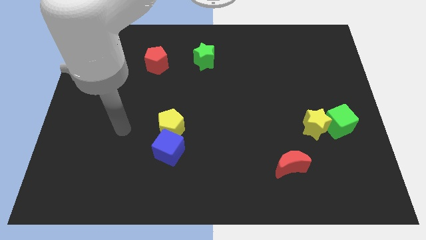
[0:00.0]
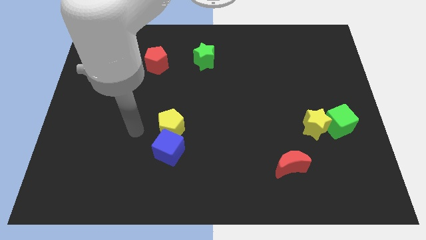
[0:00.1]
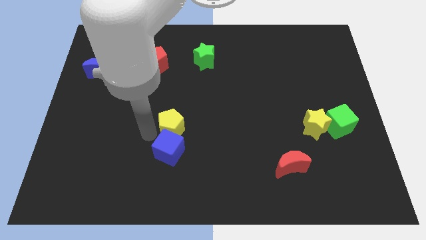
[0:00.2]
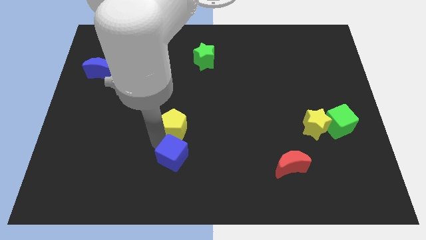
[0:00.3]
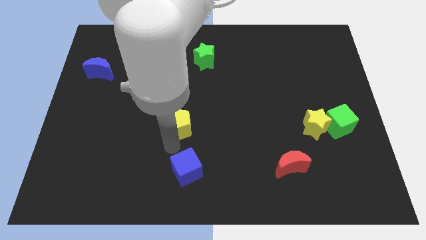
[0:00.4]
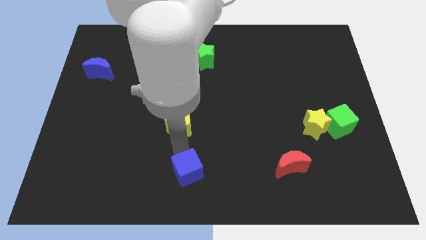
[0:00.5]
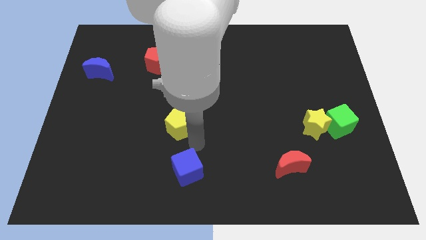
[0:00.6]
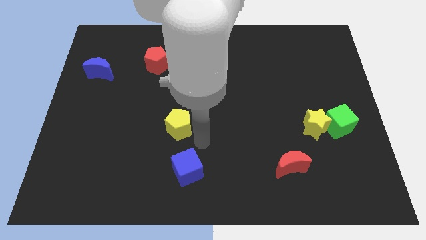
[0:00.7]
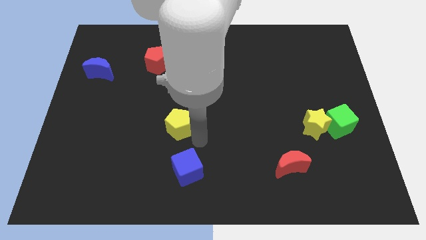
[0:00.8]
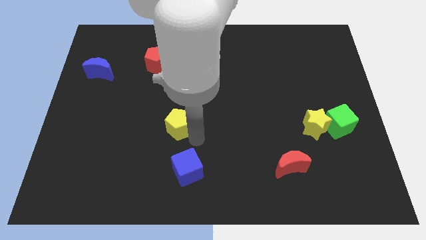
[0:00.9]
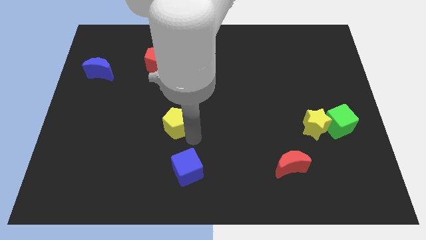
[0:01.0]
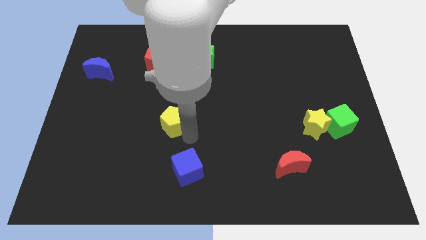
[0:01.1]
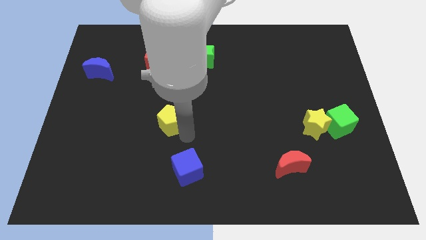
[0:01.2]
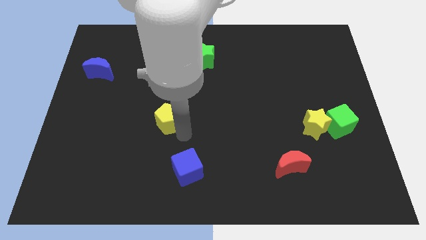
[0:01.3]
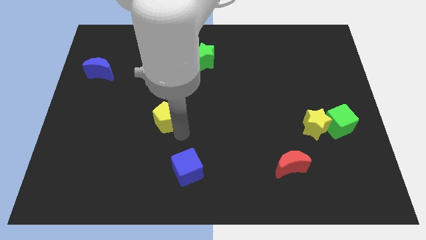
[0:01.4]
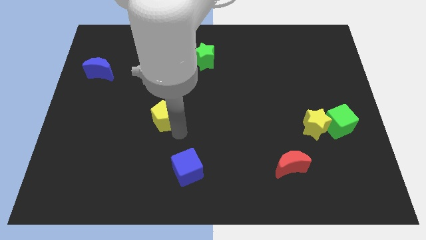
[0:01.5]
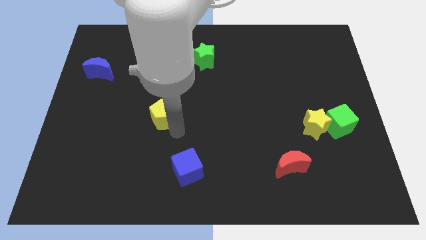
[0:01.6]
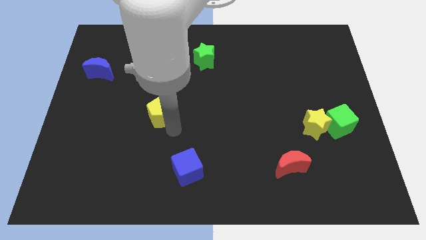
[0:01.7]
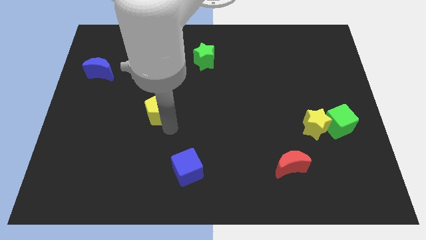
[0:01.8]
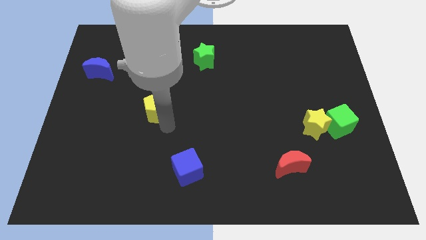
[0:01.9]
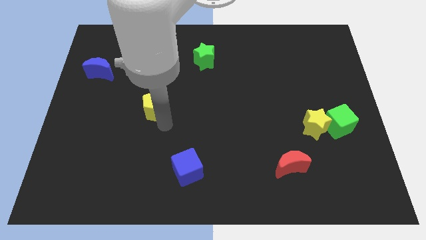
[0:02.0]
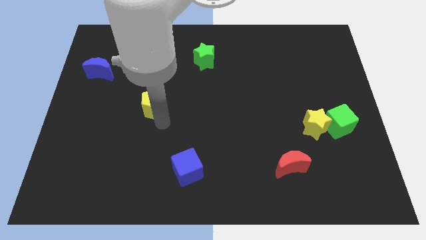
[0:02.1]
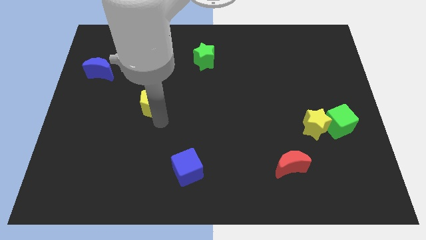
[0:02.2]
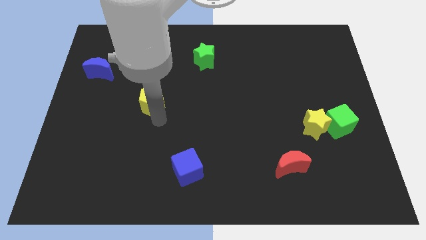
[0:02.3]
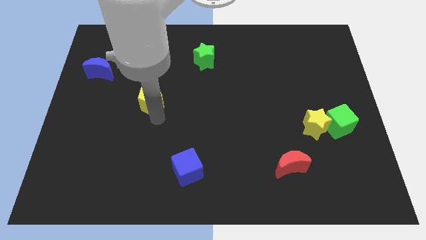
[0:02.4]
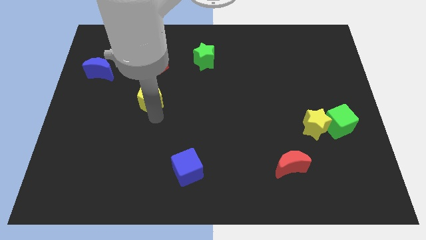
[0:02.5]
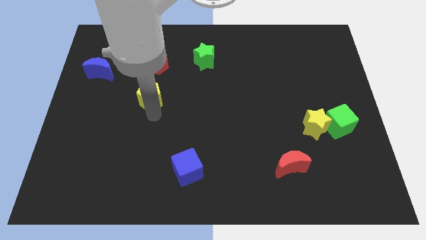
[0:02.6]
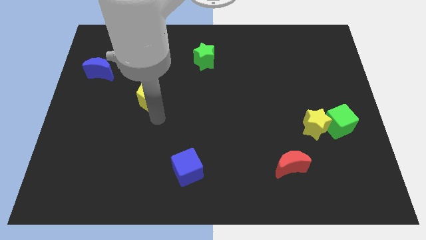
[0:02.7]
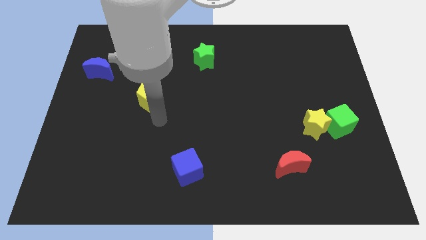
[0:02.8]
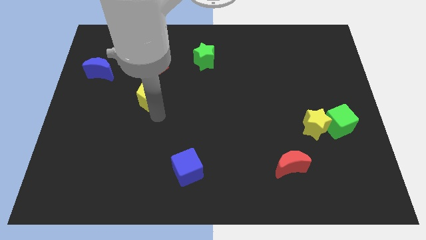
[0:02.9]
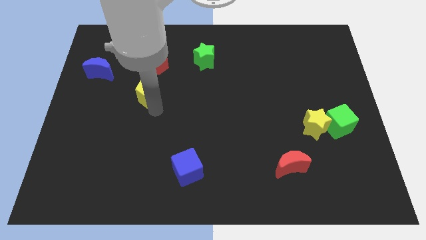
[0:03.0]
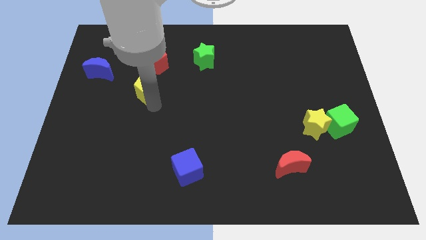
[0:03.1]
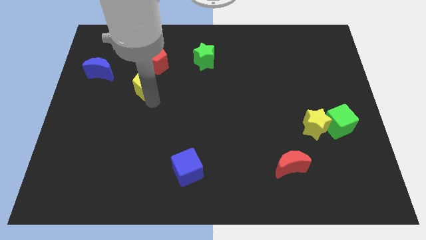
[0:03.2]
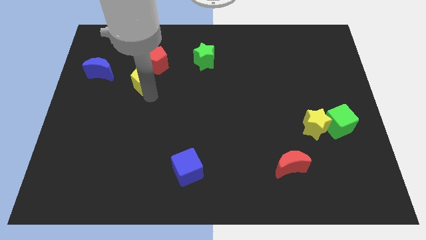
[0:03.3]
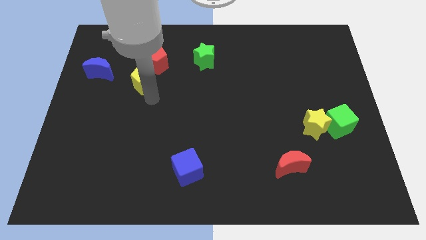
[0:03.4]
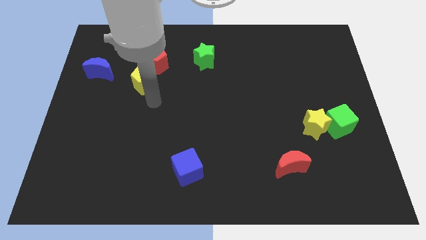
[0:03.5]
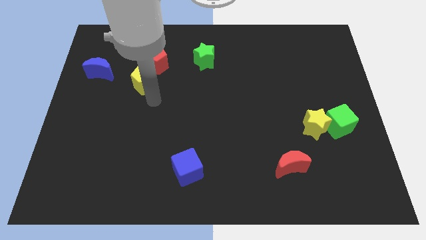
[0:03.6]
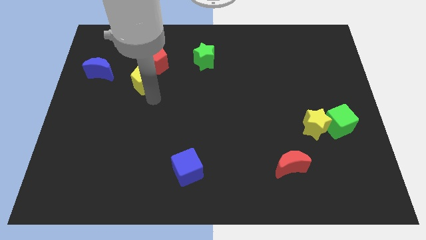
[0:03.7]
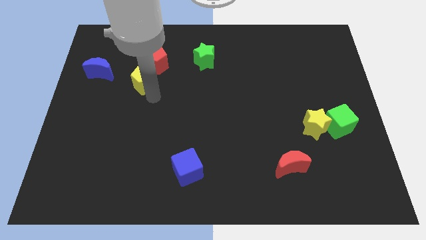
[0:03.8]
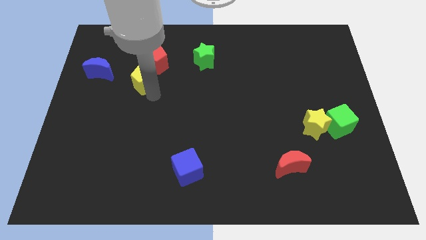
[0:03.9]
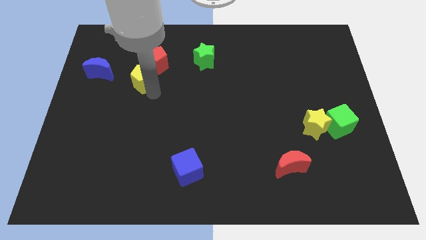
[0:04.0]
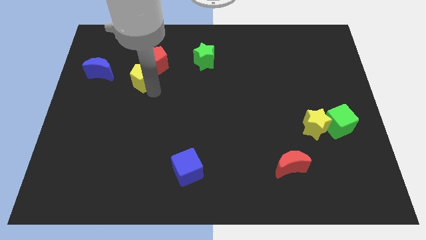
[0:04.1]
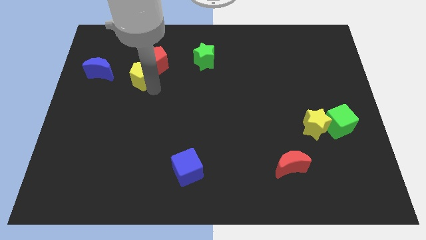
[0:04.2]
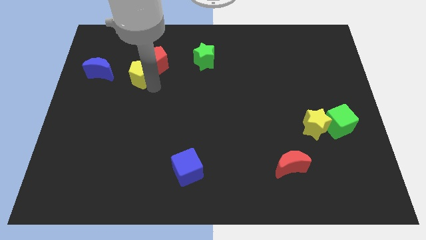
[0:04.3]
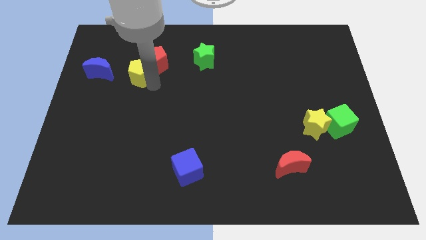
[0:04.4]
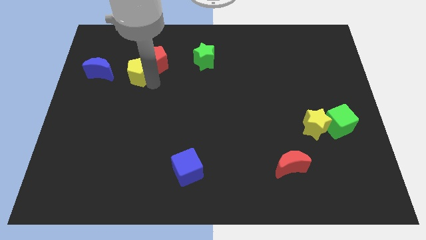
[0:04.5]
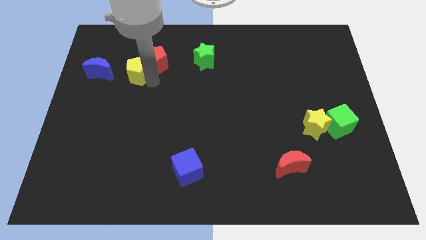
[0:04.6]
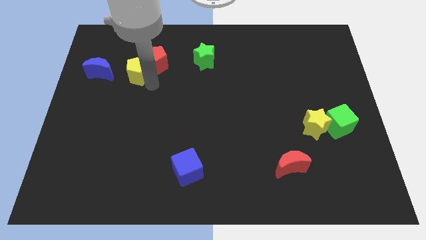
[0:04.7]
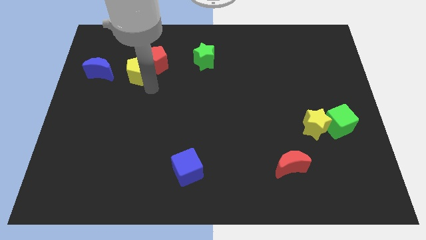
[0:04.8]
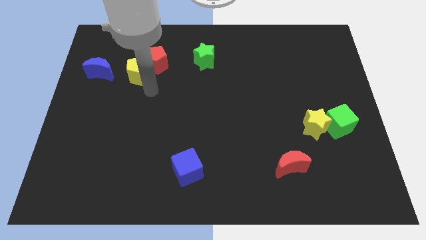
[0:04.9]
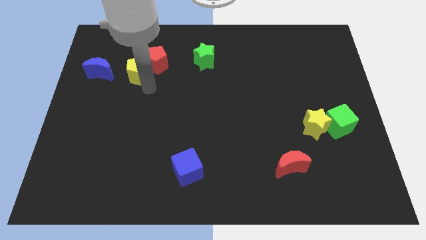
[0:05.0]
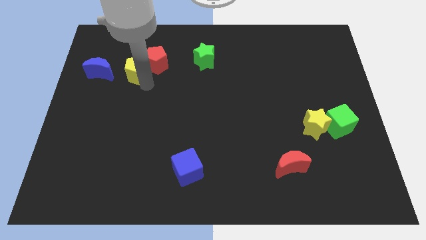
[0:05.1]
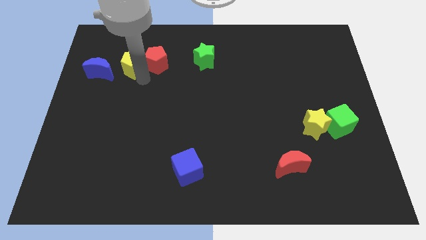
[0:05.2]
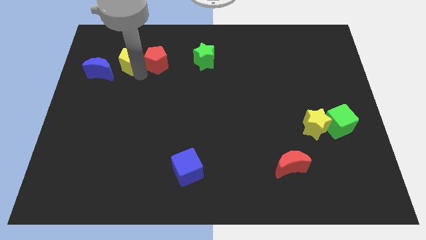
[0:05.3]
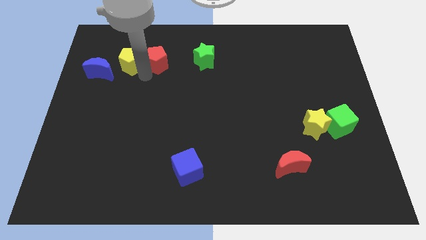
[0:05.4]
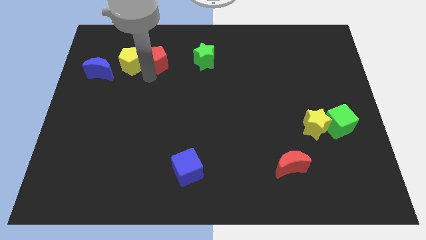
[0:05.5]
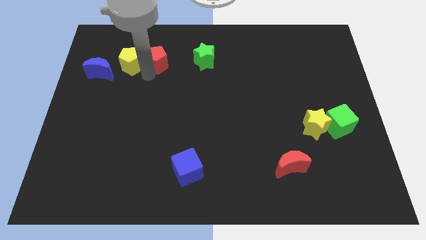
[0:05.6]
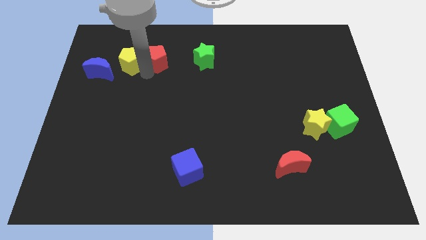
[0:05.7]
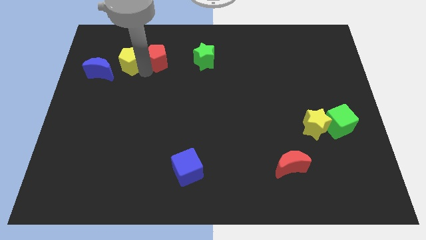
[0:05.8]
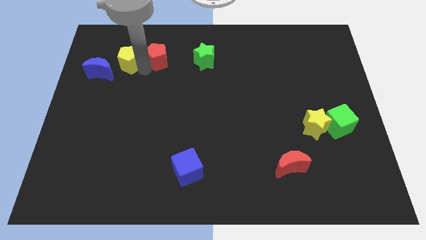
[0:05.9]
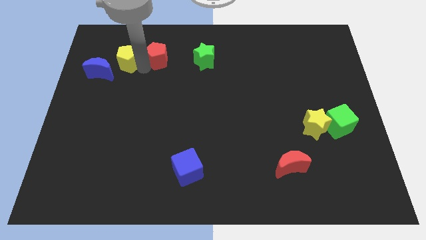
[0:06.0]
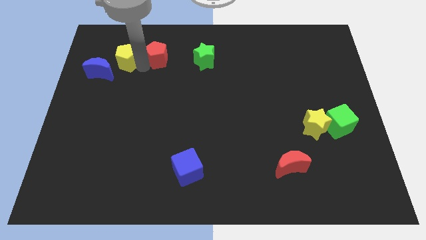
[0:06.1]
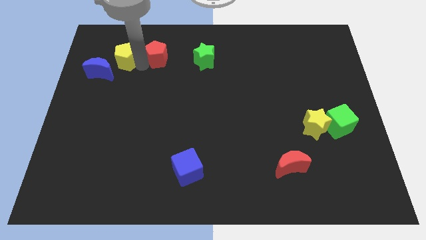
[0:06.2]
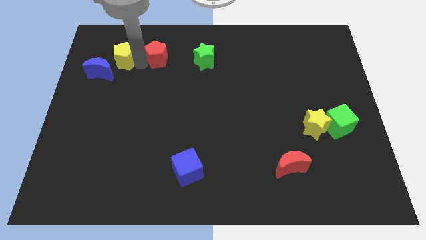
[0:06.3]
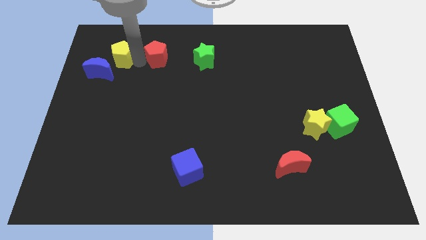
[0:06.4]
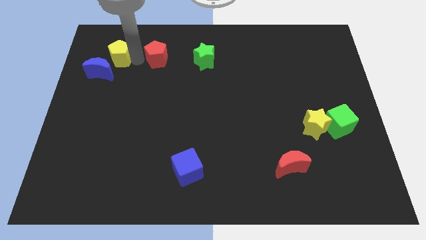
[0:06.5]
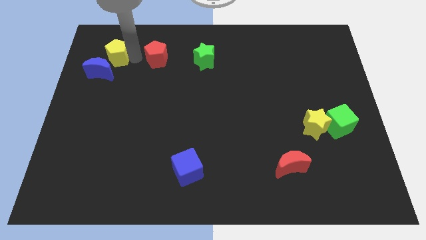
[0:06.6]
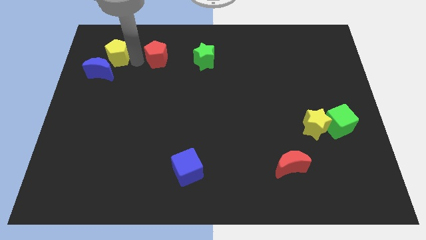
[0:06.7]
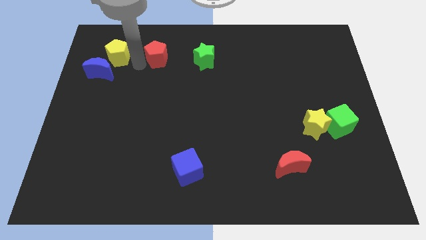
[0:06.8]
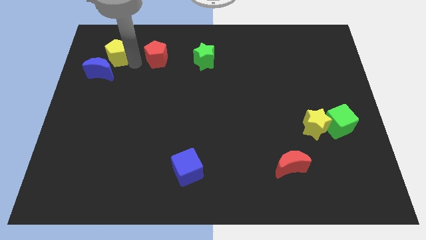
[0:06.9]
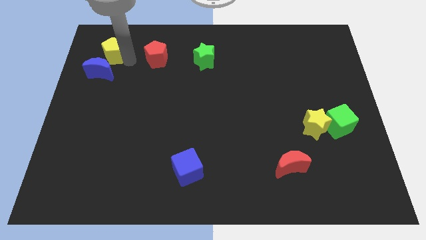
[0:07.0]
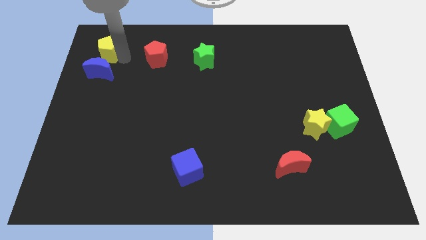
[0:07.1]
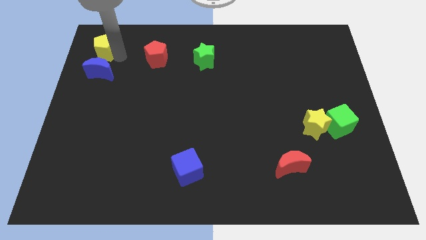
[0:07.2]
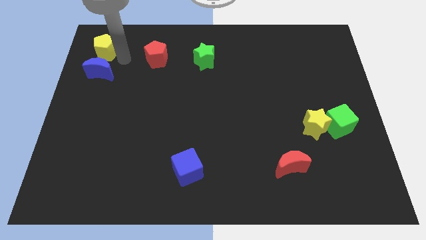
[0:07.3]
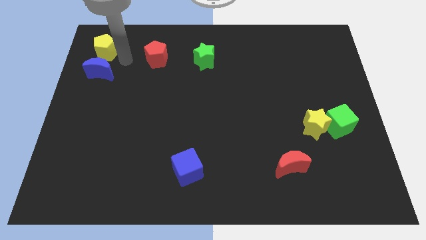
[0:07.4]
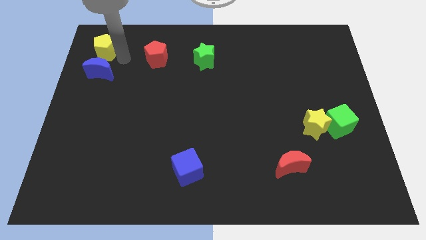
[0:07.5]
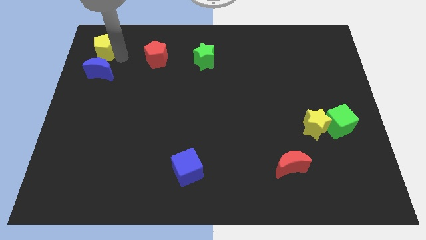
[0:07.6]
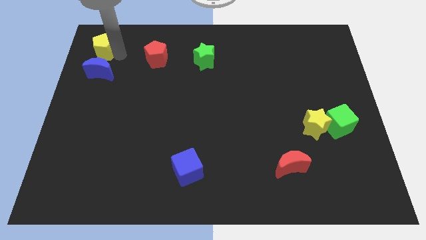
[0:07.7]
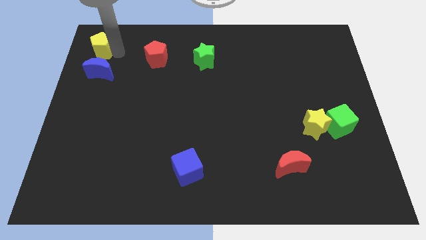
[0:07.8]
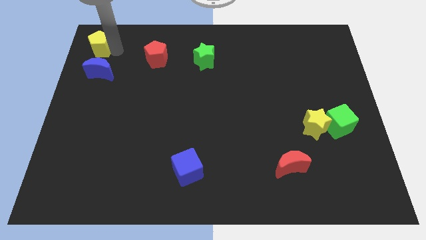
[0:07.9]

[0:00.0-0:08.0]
push the yellow pentagon to the top left corner
